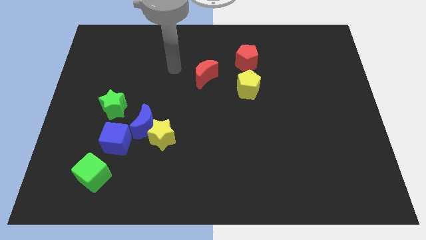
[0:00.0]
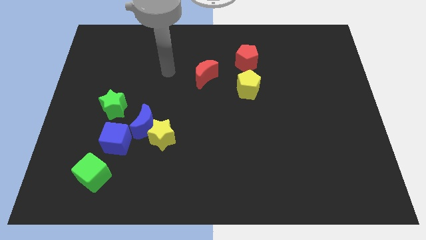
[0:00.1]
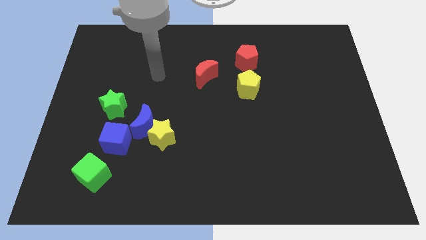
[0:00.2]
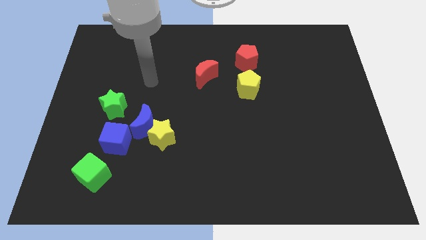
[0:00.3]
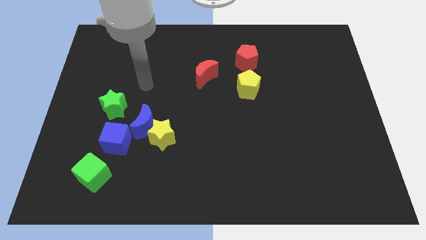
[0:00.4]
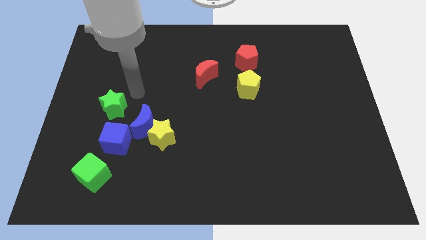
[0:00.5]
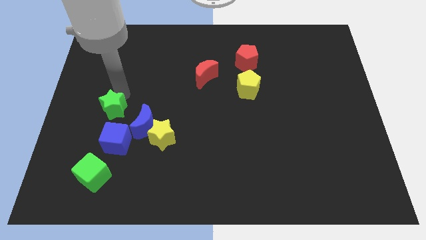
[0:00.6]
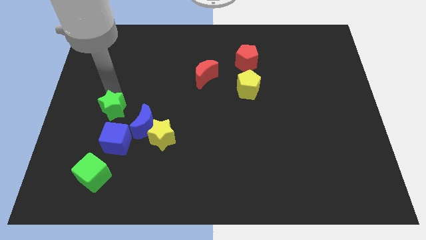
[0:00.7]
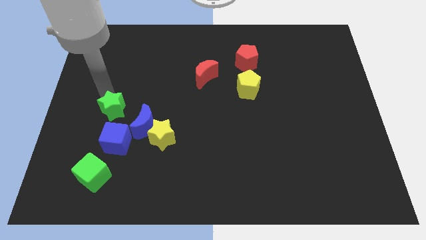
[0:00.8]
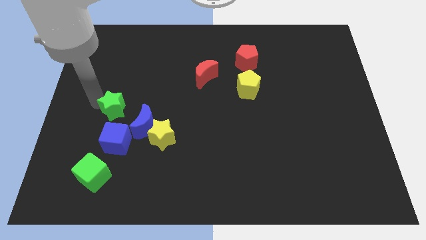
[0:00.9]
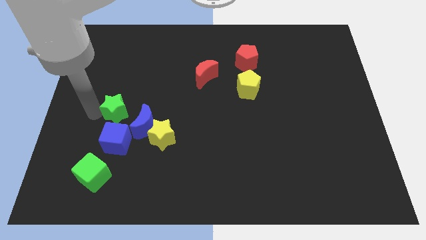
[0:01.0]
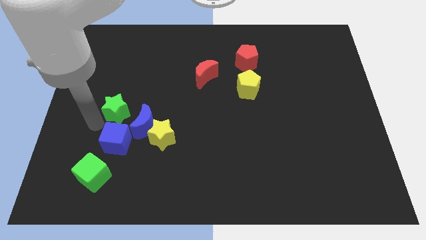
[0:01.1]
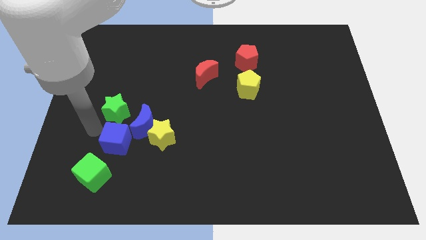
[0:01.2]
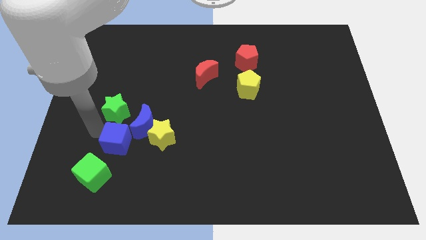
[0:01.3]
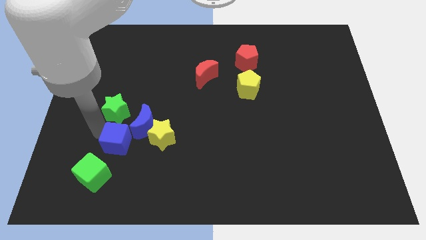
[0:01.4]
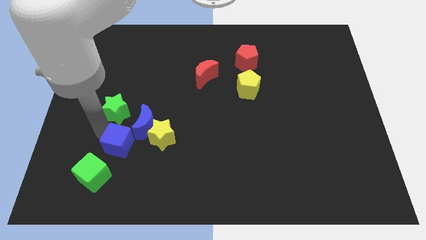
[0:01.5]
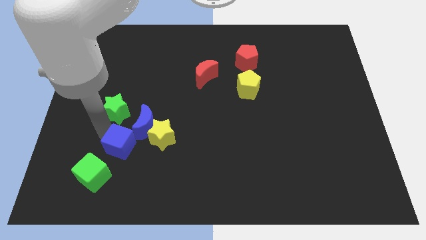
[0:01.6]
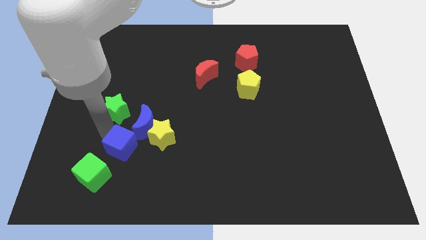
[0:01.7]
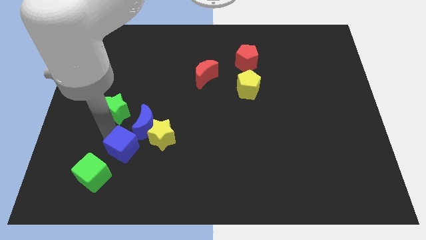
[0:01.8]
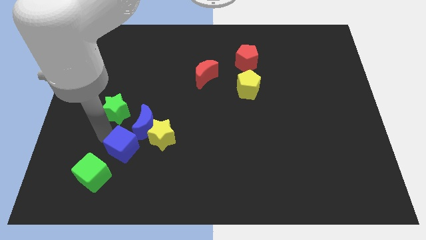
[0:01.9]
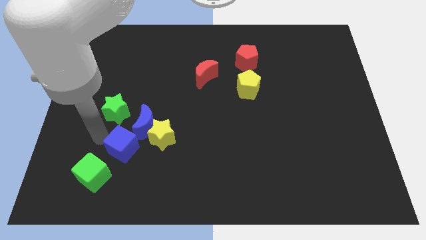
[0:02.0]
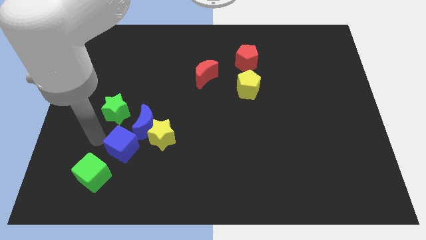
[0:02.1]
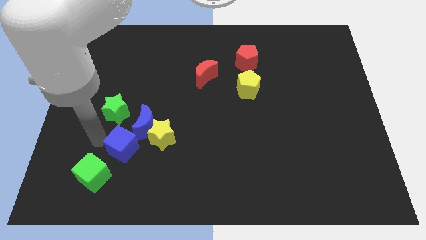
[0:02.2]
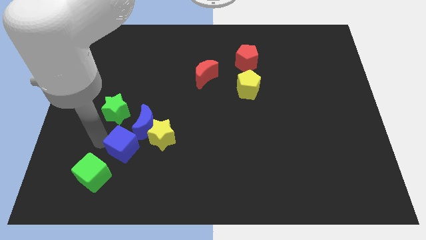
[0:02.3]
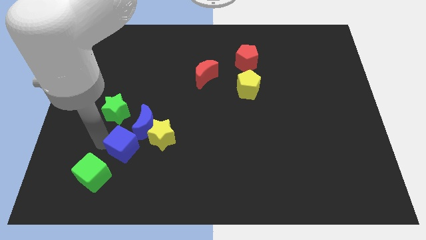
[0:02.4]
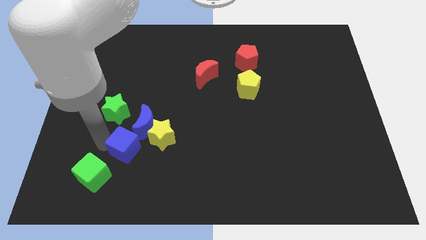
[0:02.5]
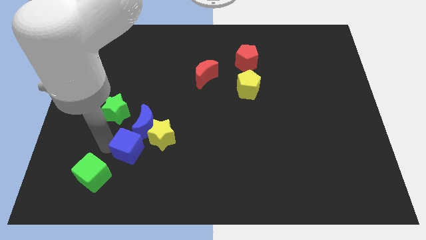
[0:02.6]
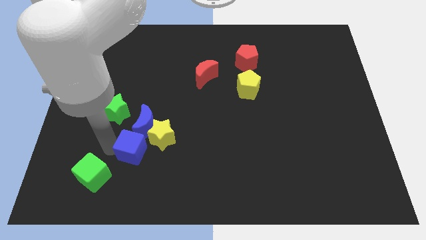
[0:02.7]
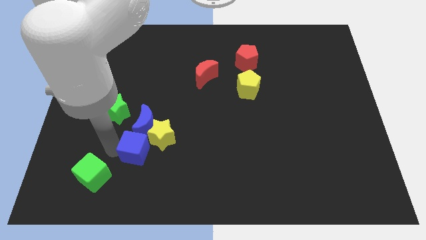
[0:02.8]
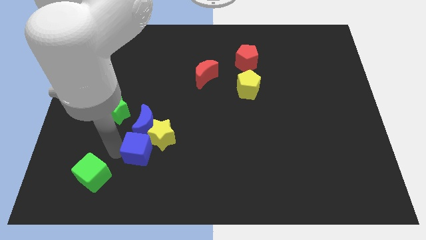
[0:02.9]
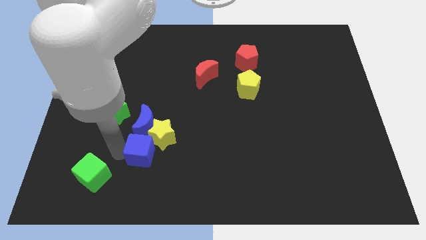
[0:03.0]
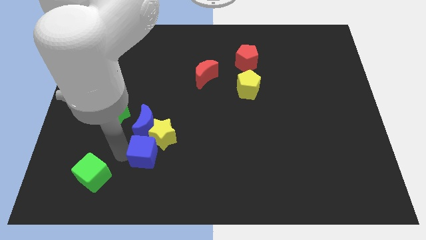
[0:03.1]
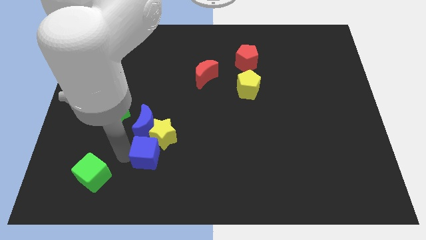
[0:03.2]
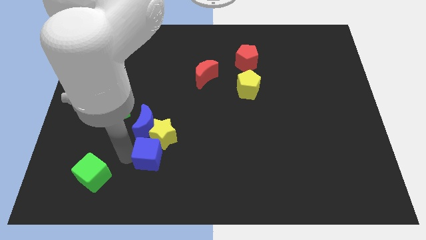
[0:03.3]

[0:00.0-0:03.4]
move the blue cube right somewhat

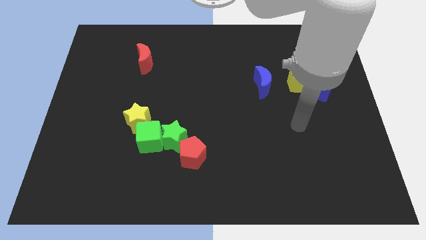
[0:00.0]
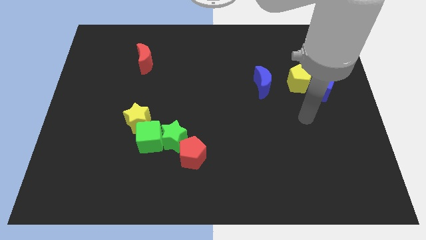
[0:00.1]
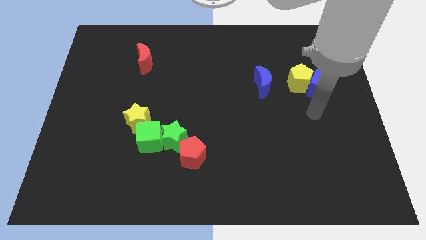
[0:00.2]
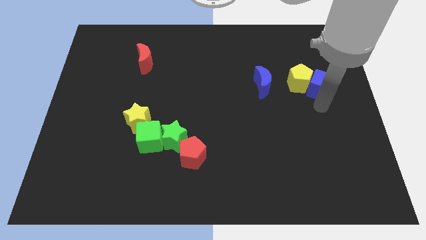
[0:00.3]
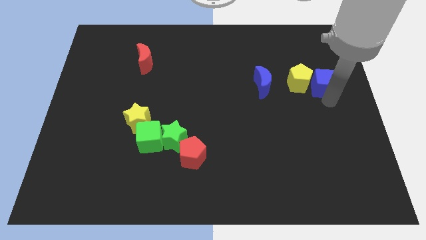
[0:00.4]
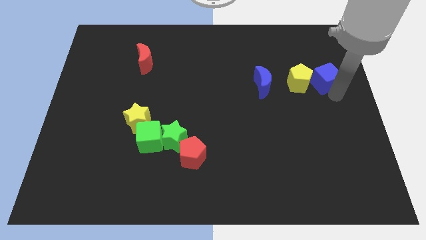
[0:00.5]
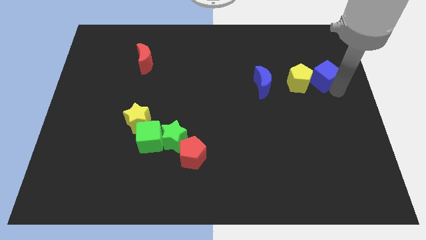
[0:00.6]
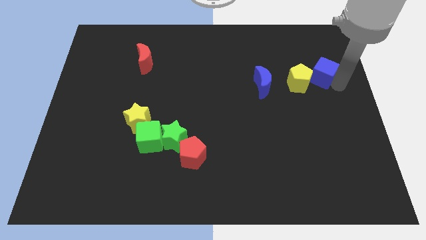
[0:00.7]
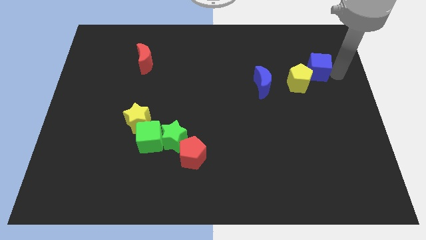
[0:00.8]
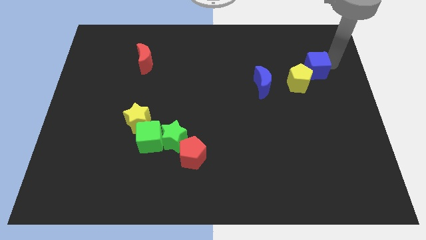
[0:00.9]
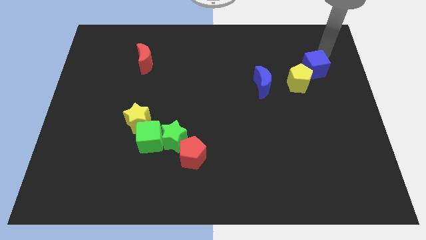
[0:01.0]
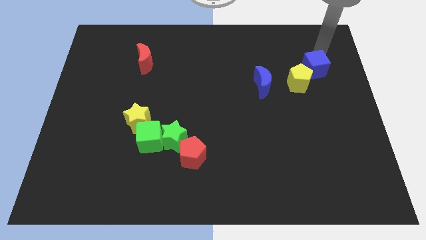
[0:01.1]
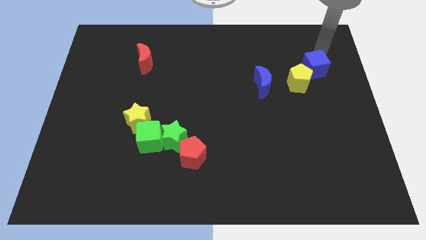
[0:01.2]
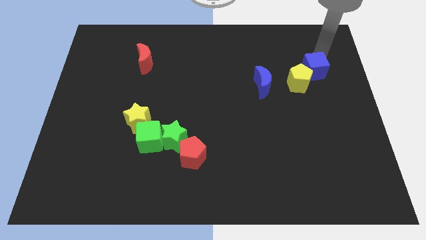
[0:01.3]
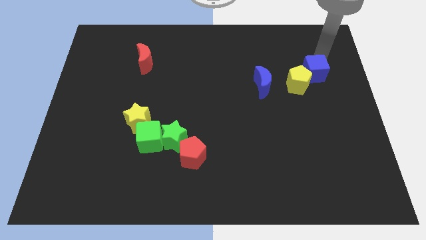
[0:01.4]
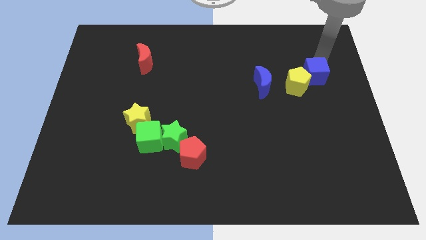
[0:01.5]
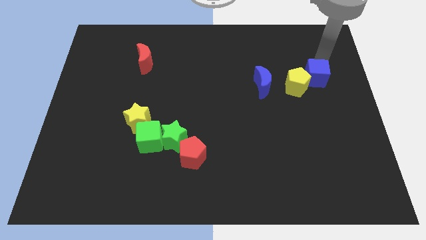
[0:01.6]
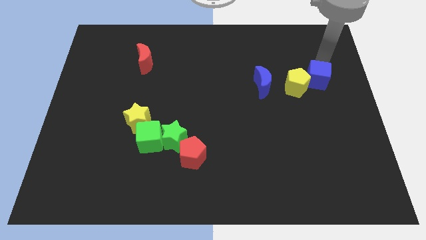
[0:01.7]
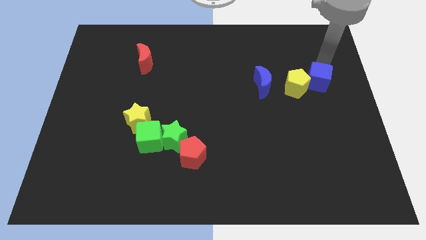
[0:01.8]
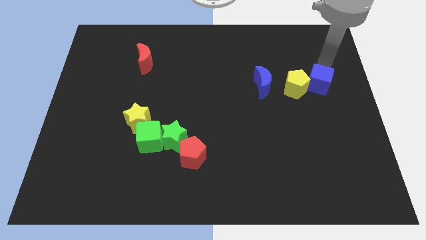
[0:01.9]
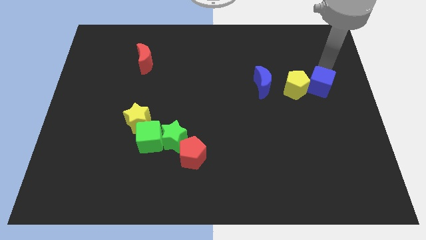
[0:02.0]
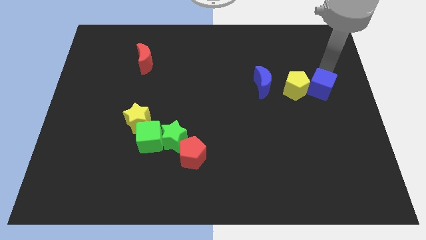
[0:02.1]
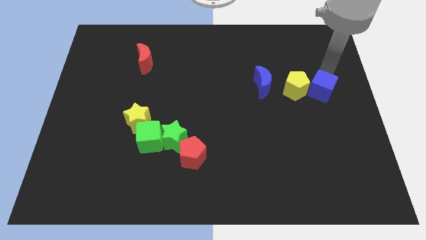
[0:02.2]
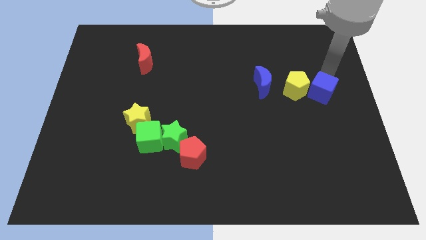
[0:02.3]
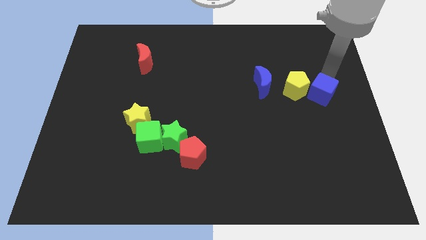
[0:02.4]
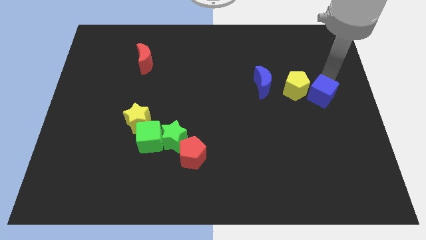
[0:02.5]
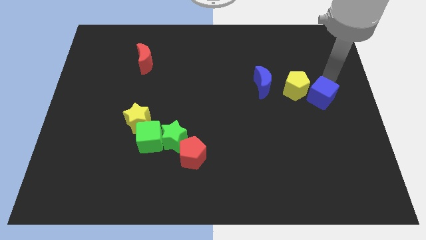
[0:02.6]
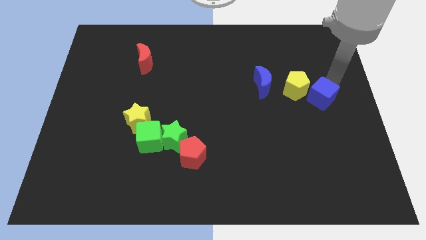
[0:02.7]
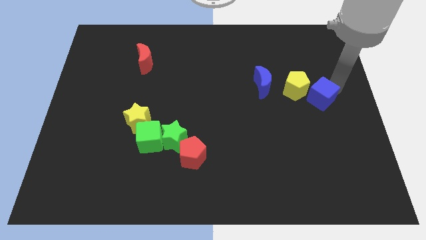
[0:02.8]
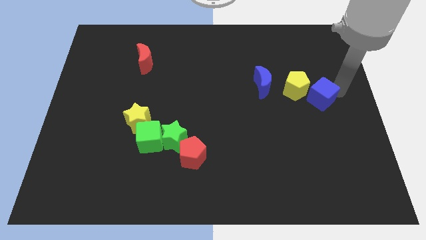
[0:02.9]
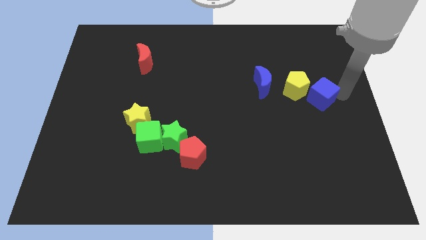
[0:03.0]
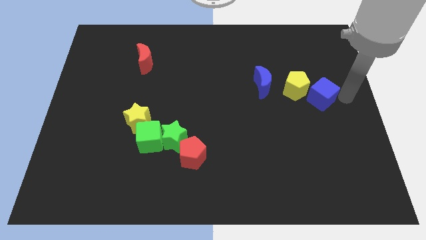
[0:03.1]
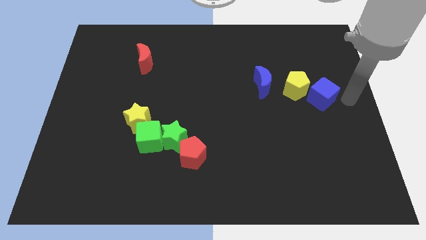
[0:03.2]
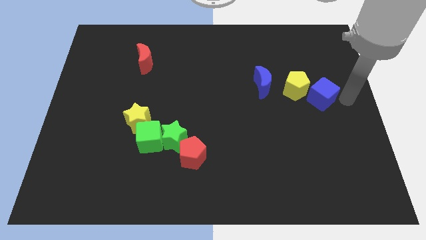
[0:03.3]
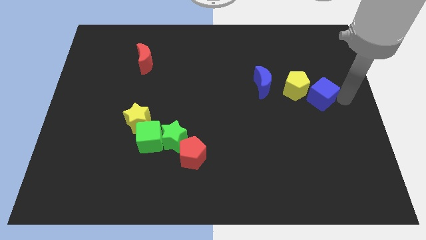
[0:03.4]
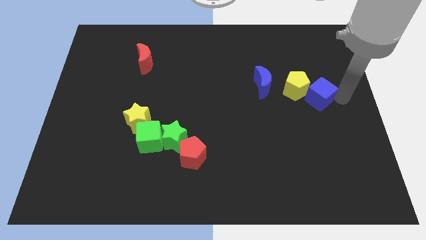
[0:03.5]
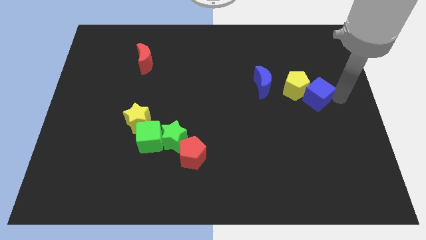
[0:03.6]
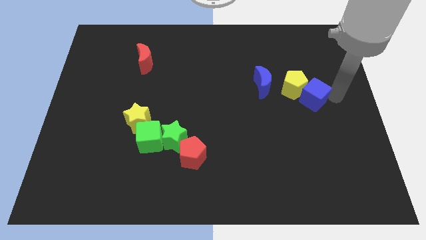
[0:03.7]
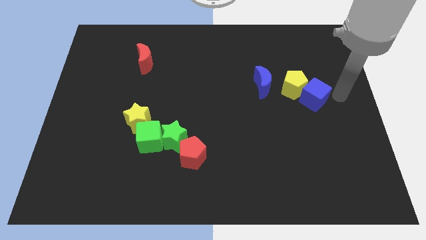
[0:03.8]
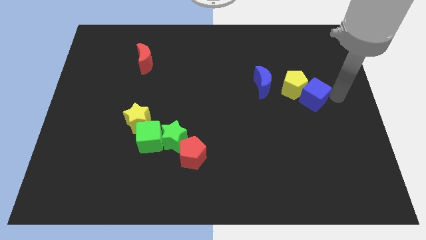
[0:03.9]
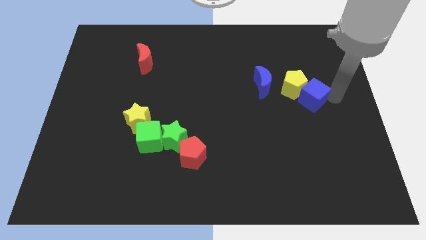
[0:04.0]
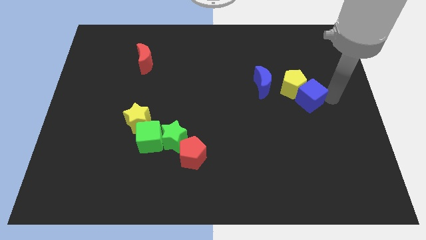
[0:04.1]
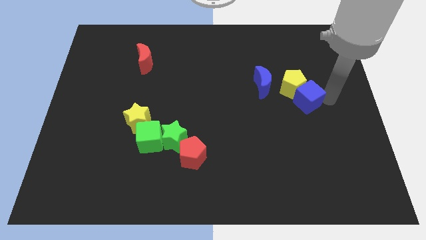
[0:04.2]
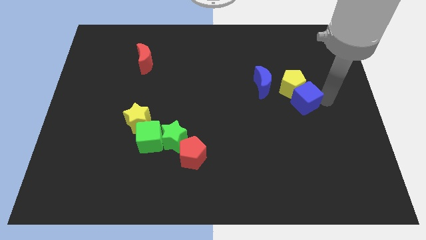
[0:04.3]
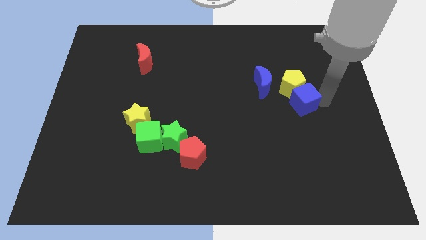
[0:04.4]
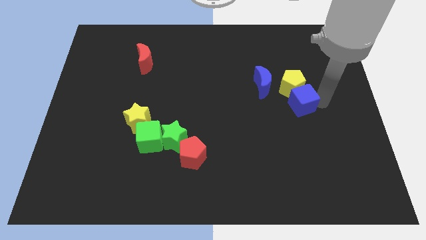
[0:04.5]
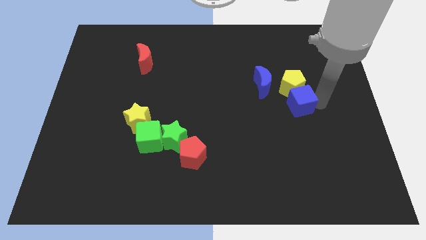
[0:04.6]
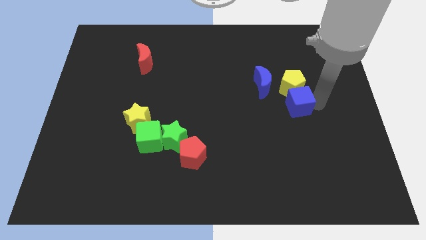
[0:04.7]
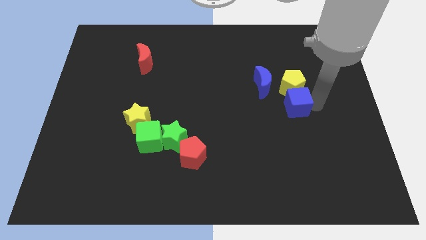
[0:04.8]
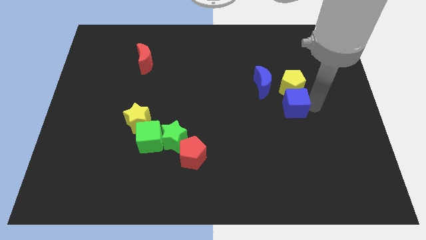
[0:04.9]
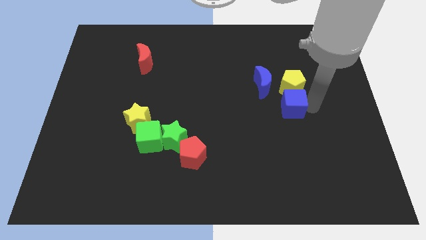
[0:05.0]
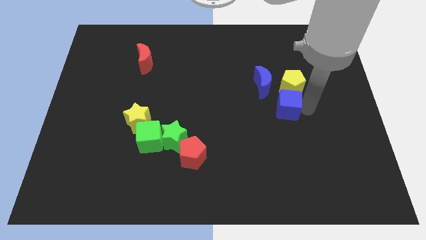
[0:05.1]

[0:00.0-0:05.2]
slide the blue cube somewhat left
